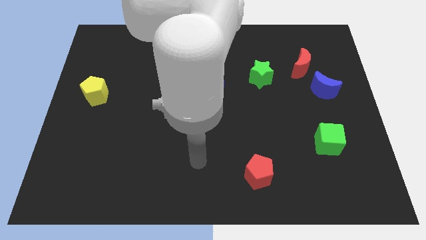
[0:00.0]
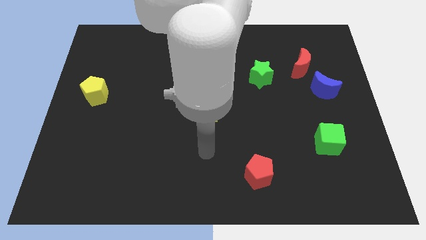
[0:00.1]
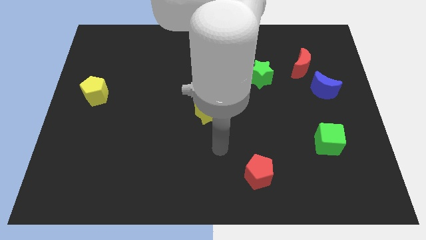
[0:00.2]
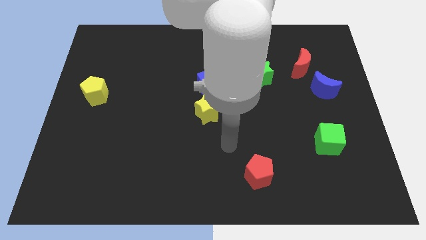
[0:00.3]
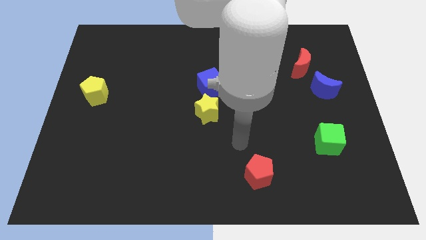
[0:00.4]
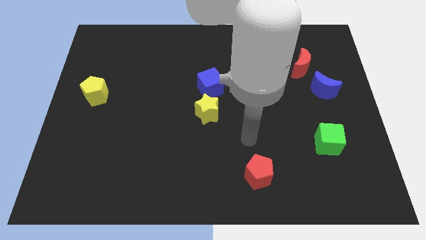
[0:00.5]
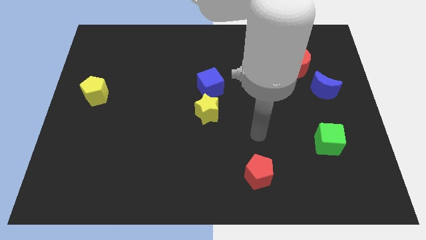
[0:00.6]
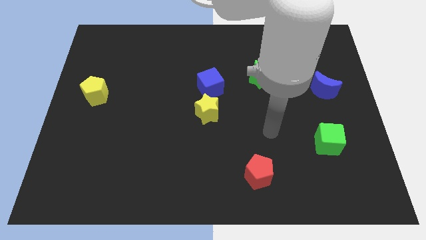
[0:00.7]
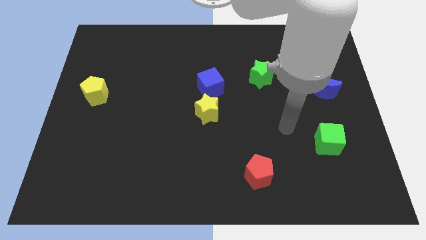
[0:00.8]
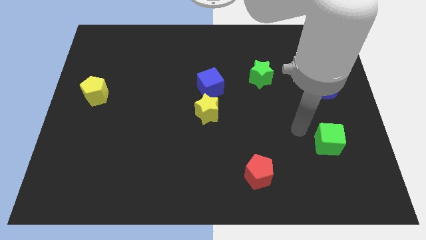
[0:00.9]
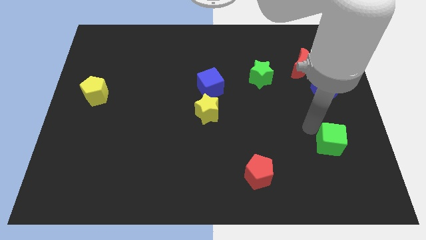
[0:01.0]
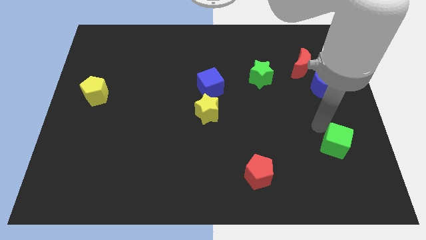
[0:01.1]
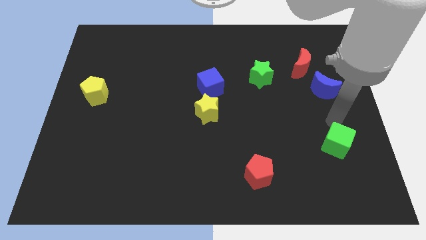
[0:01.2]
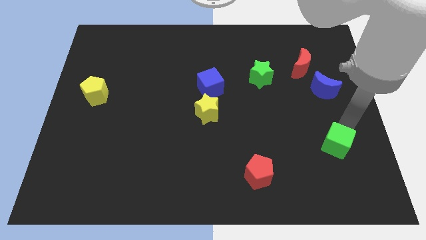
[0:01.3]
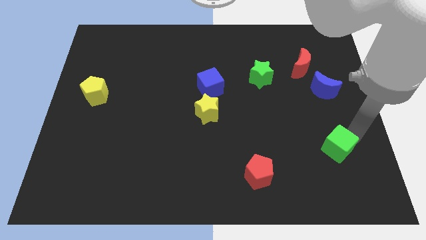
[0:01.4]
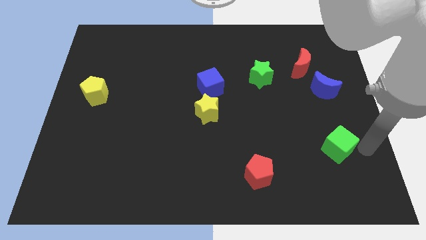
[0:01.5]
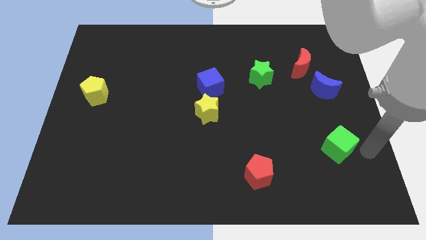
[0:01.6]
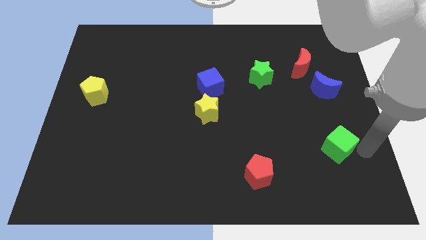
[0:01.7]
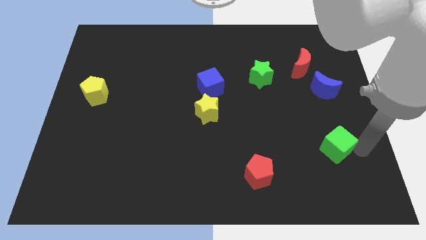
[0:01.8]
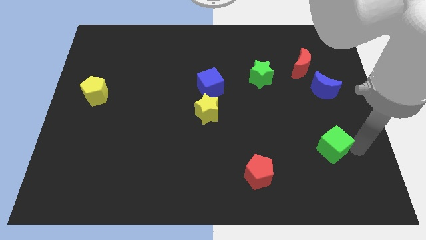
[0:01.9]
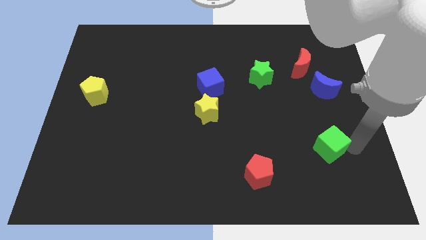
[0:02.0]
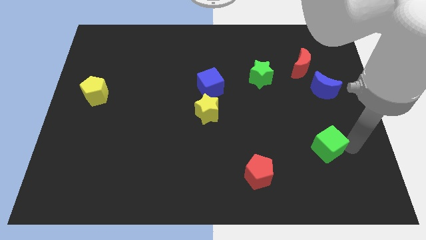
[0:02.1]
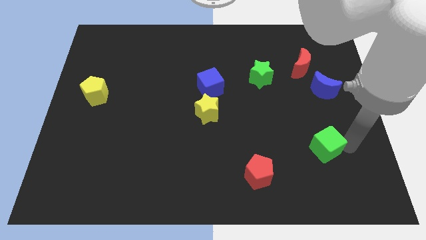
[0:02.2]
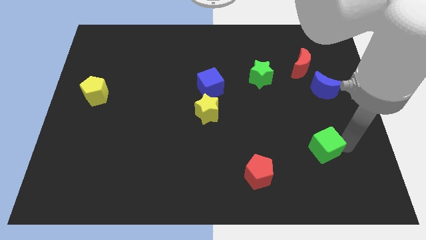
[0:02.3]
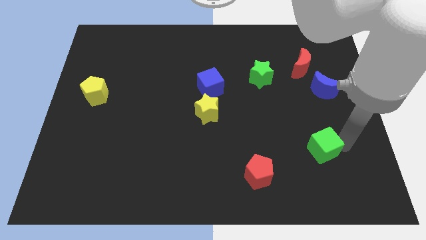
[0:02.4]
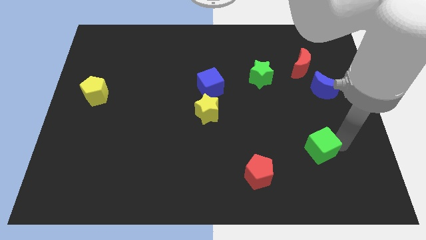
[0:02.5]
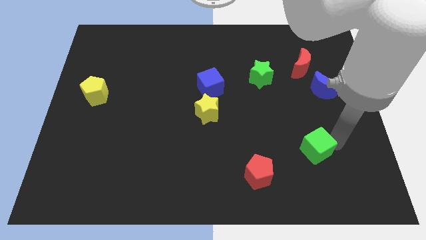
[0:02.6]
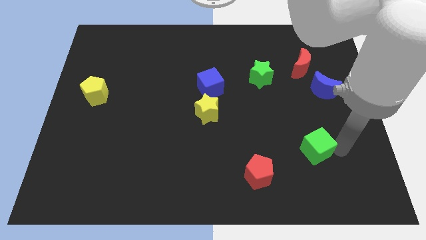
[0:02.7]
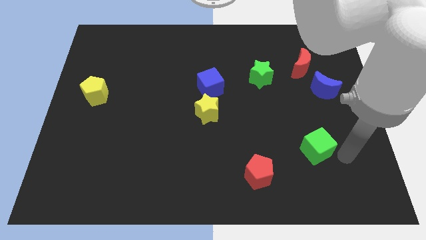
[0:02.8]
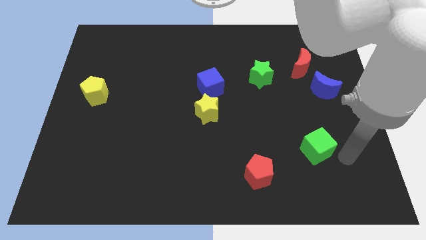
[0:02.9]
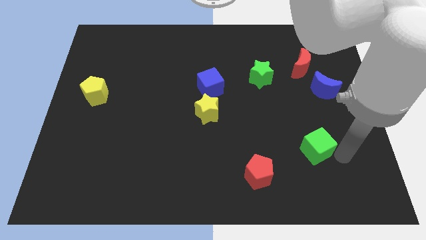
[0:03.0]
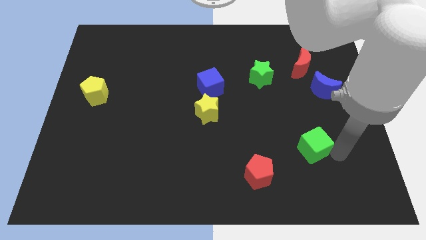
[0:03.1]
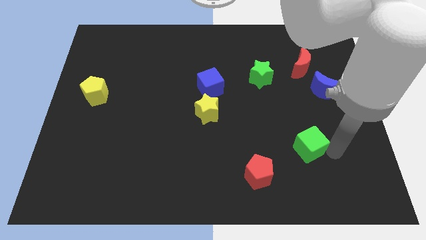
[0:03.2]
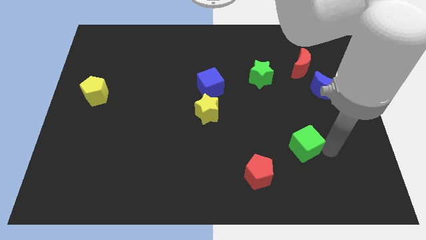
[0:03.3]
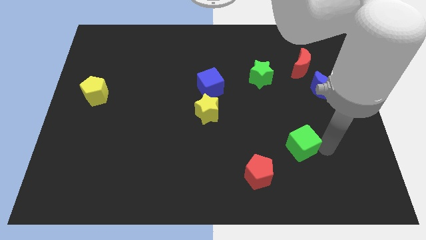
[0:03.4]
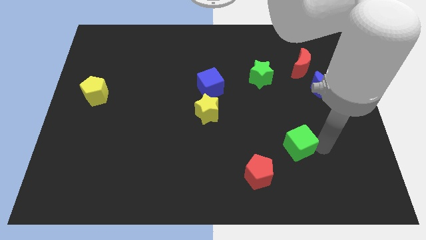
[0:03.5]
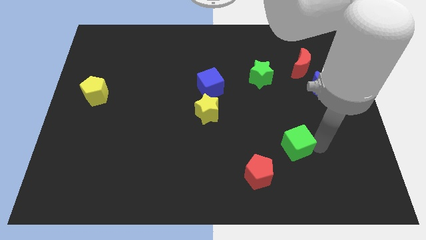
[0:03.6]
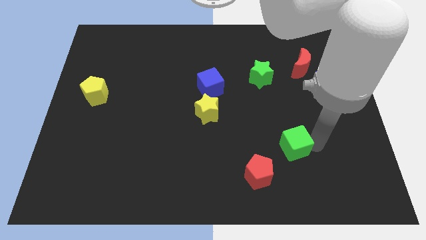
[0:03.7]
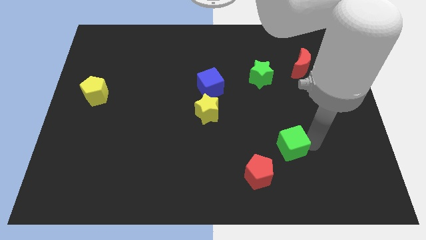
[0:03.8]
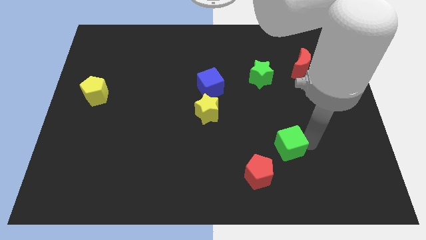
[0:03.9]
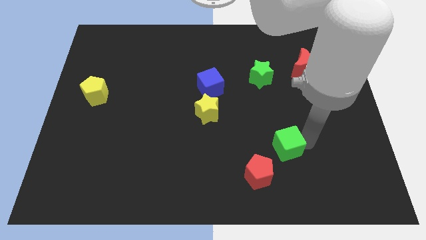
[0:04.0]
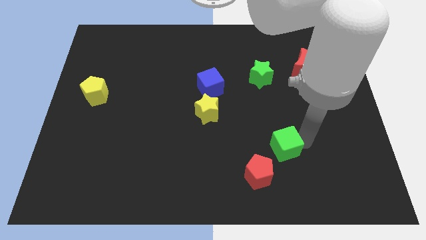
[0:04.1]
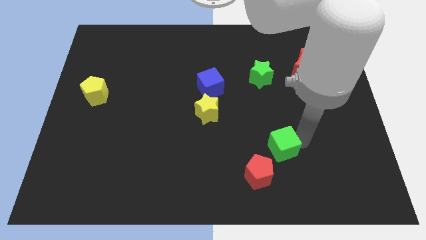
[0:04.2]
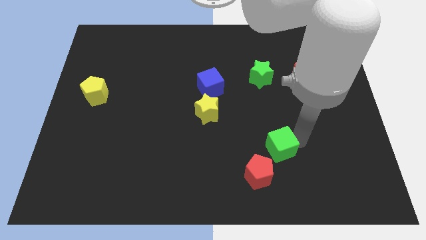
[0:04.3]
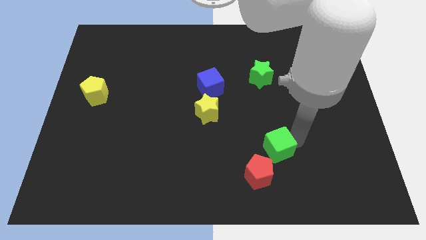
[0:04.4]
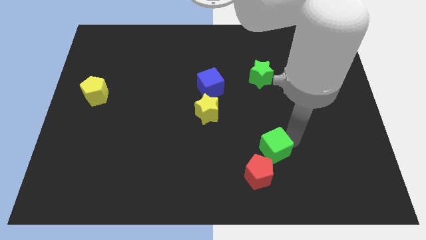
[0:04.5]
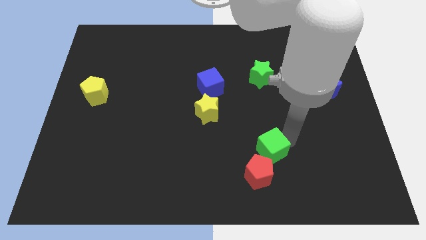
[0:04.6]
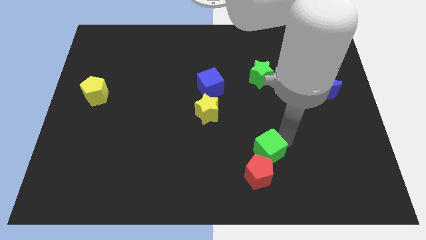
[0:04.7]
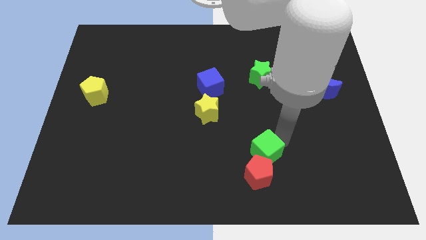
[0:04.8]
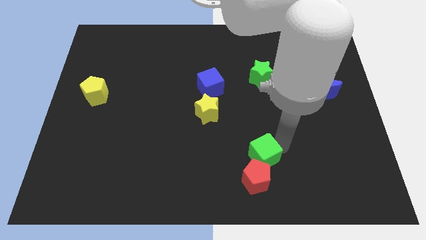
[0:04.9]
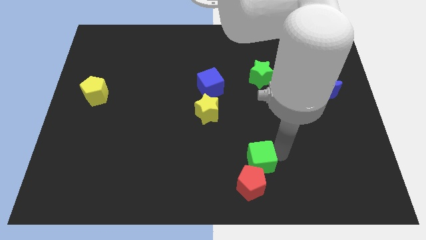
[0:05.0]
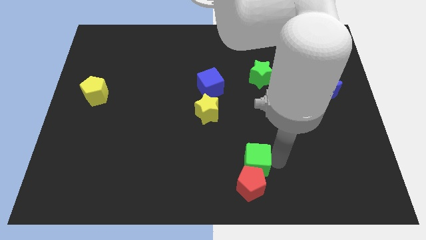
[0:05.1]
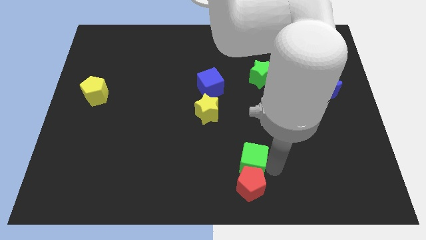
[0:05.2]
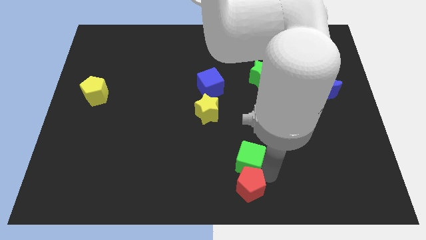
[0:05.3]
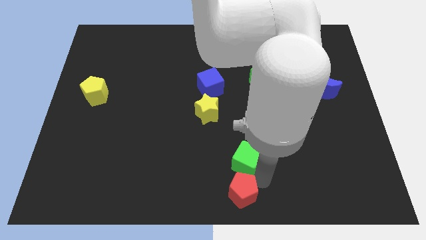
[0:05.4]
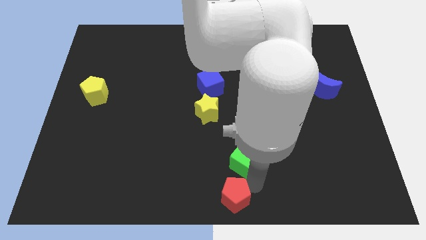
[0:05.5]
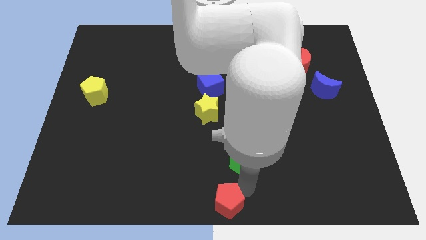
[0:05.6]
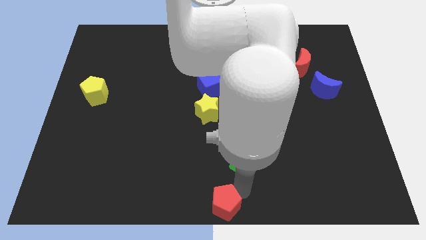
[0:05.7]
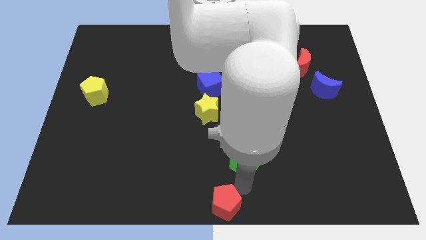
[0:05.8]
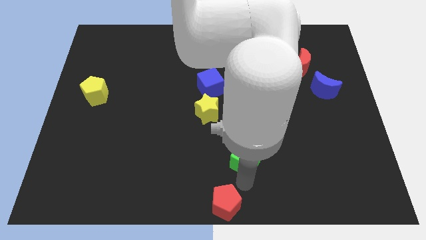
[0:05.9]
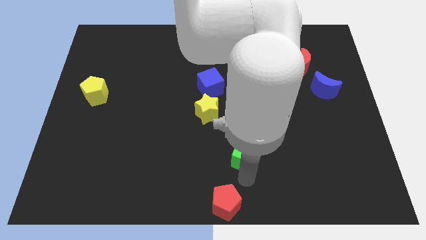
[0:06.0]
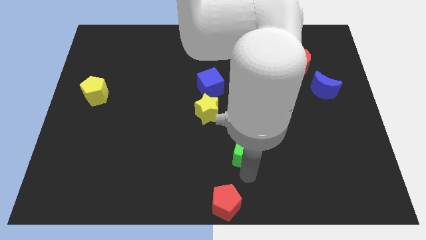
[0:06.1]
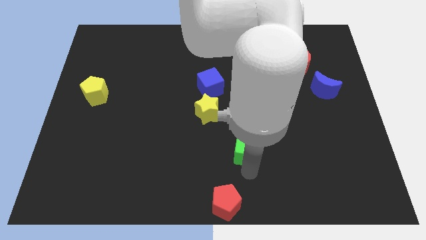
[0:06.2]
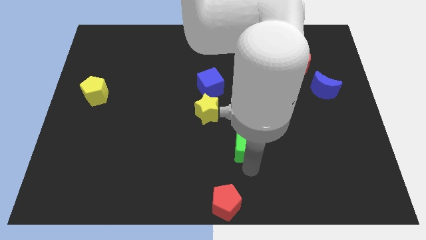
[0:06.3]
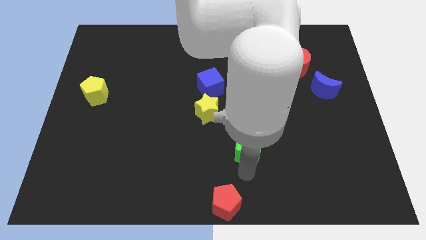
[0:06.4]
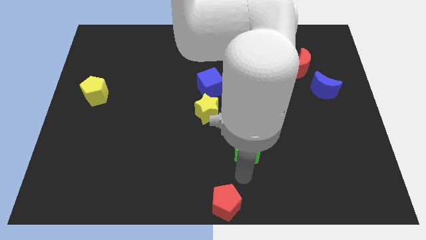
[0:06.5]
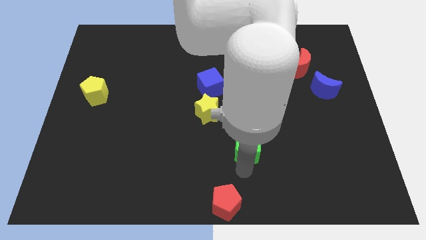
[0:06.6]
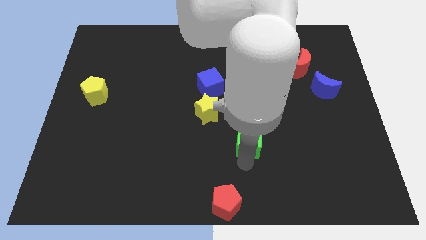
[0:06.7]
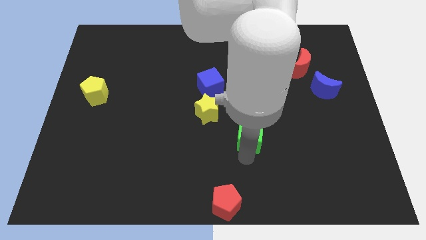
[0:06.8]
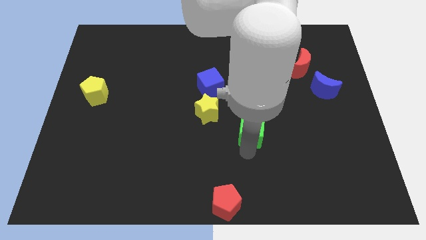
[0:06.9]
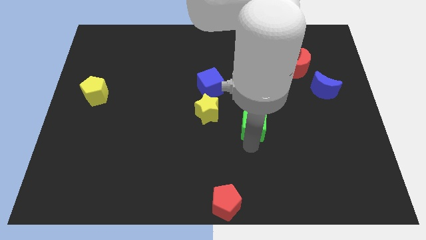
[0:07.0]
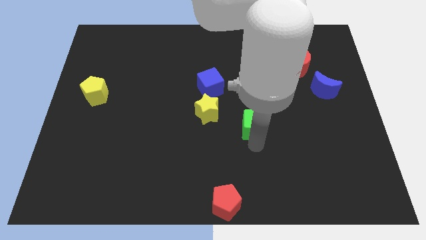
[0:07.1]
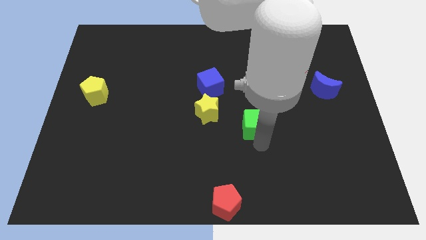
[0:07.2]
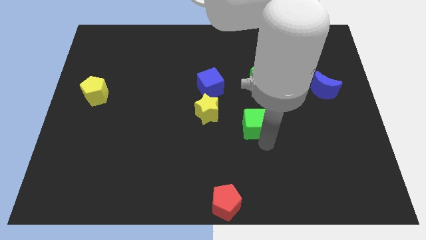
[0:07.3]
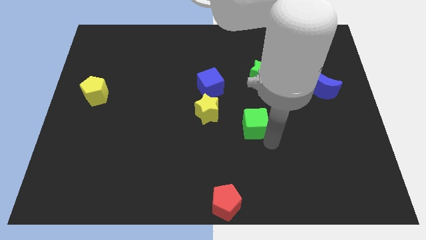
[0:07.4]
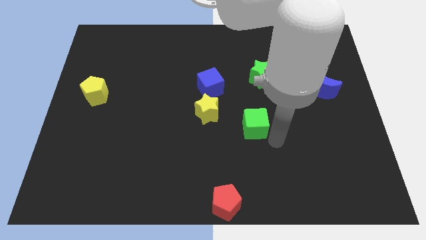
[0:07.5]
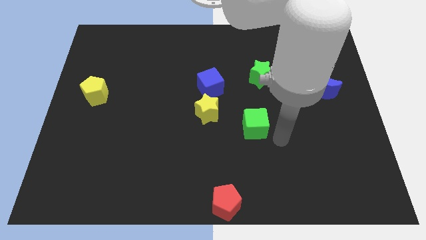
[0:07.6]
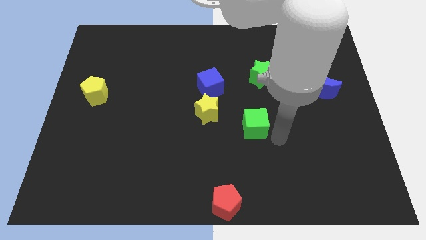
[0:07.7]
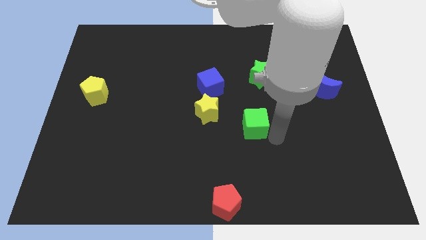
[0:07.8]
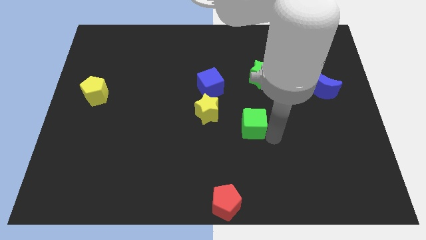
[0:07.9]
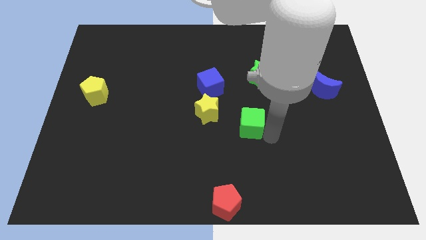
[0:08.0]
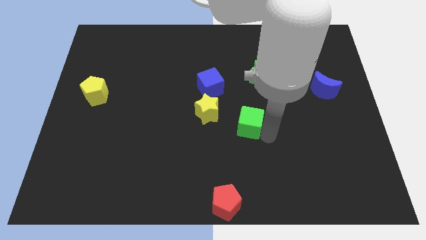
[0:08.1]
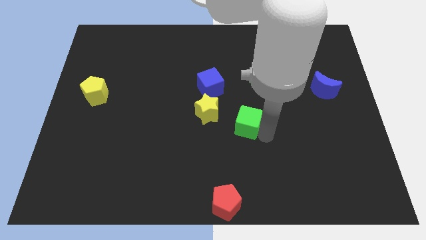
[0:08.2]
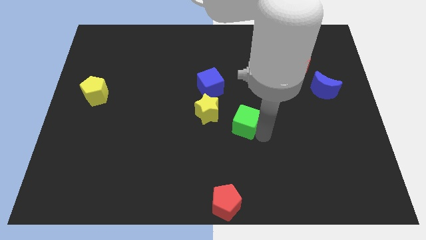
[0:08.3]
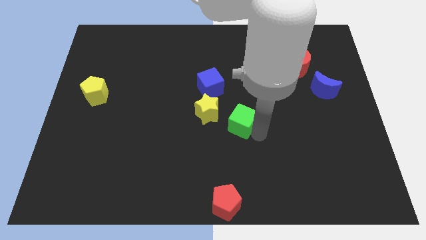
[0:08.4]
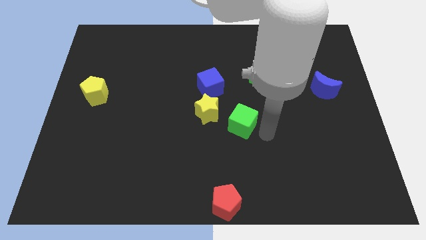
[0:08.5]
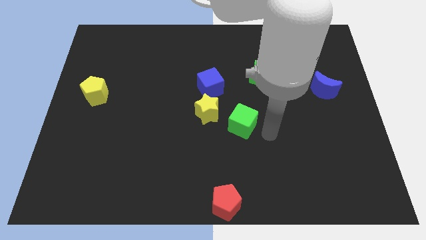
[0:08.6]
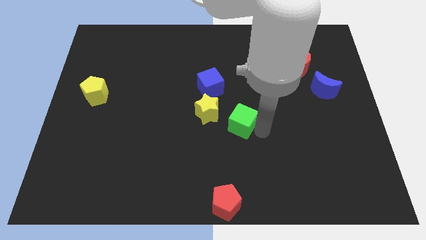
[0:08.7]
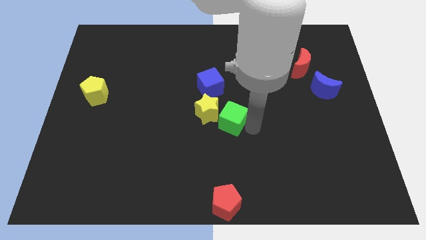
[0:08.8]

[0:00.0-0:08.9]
move the green cube to the yellow star
